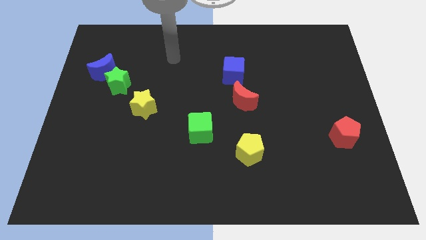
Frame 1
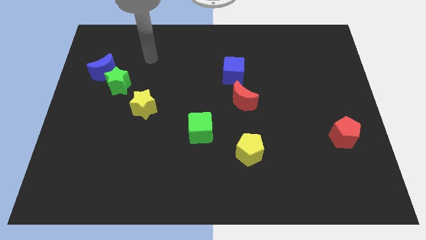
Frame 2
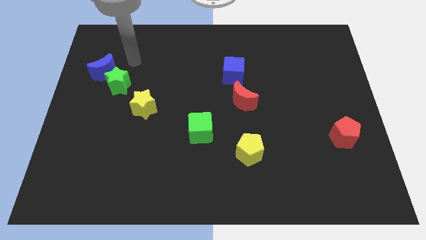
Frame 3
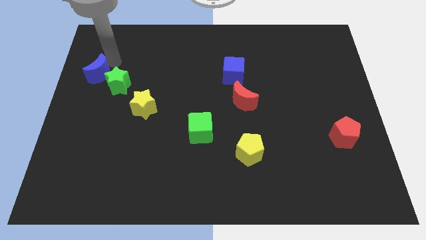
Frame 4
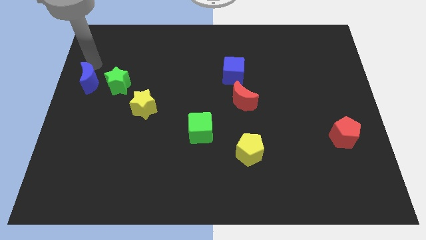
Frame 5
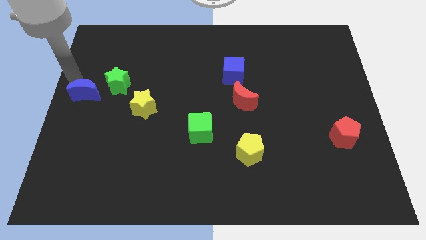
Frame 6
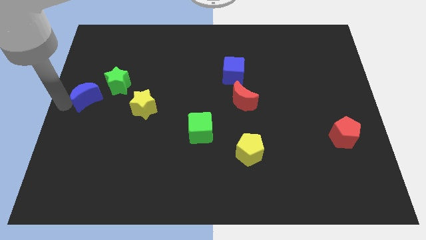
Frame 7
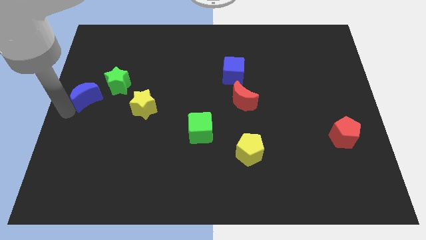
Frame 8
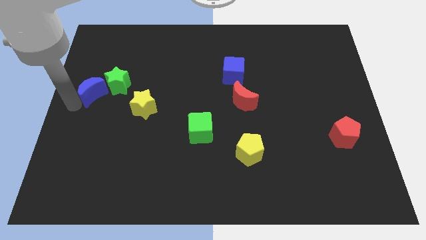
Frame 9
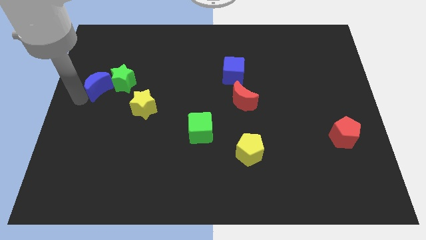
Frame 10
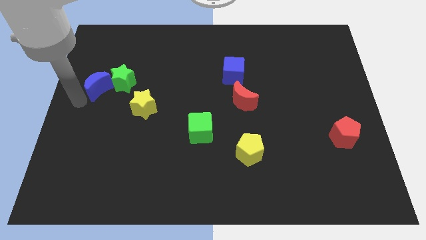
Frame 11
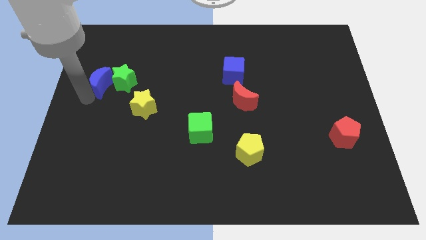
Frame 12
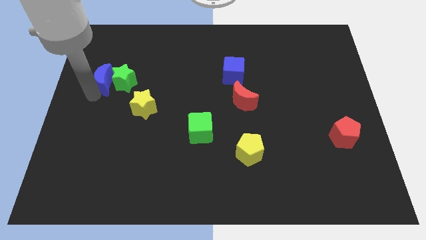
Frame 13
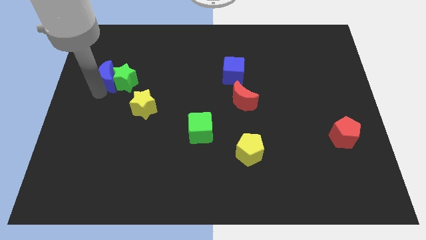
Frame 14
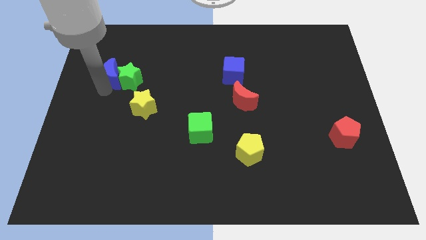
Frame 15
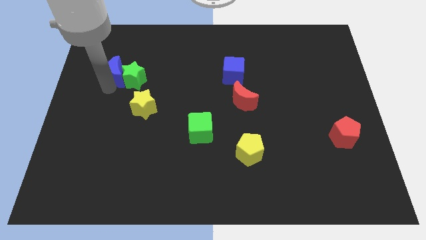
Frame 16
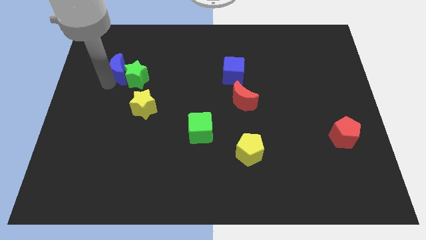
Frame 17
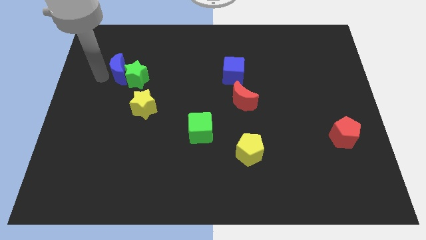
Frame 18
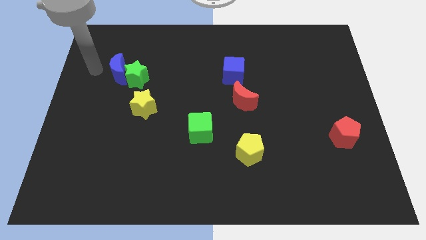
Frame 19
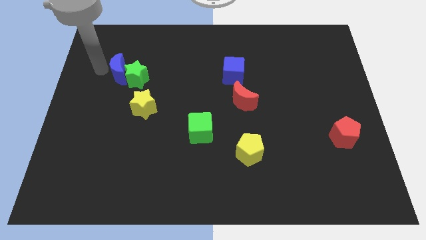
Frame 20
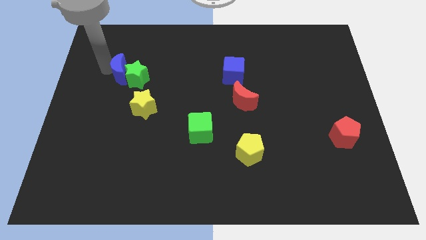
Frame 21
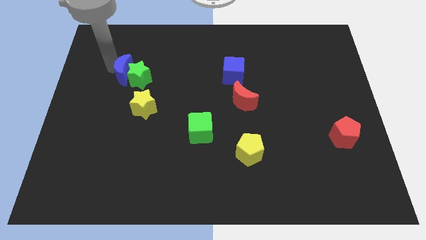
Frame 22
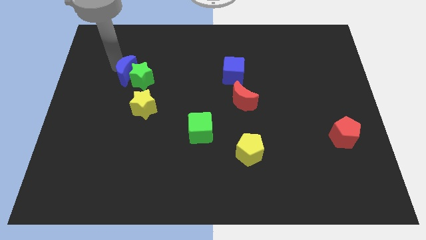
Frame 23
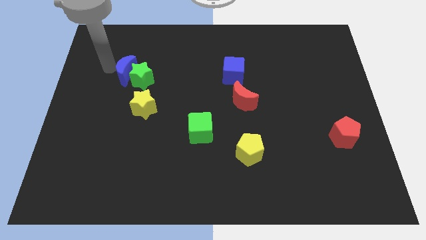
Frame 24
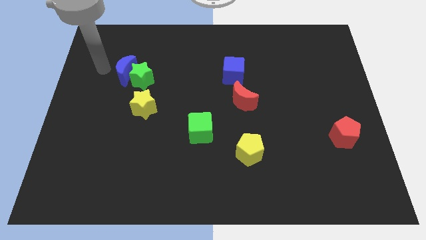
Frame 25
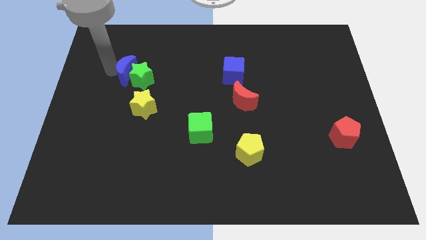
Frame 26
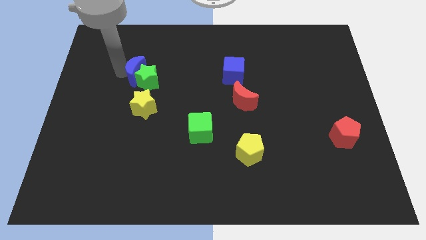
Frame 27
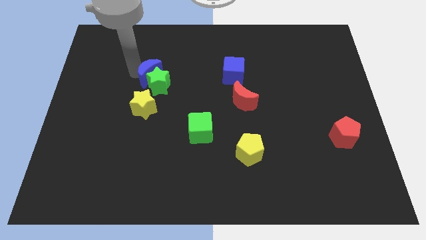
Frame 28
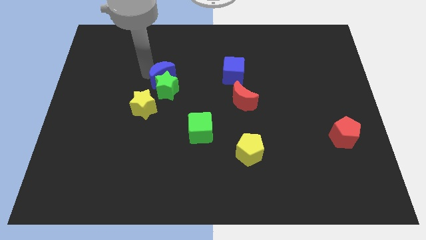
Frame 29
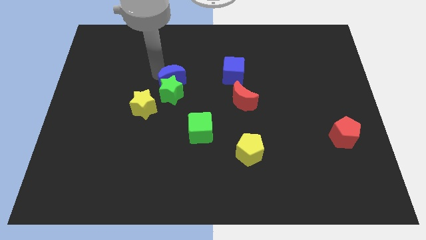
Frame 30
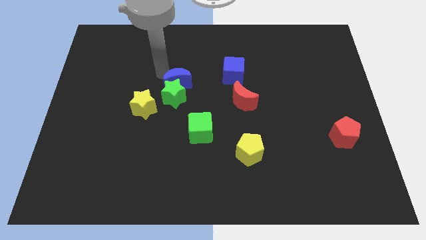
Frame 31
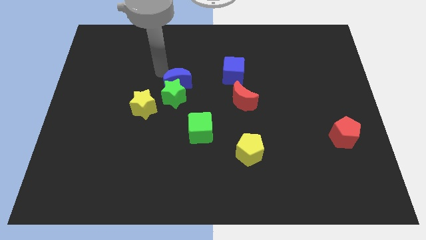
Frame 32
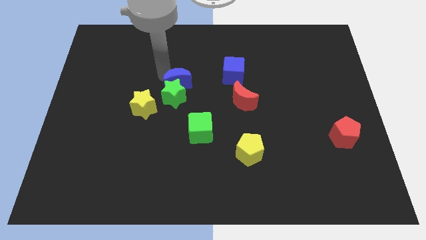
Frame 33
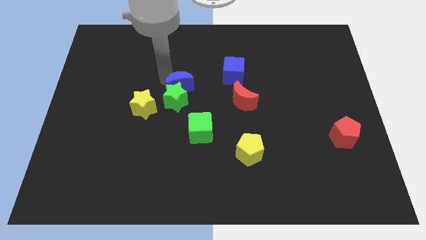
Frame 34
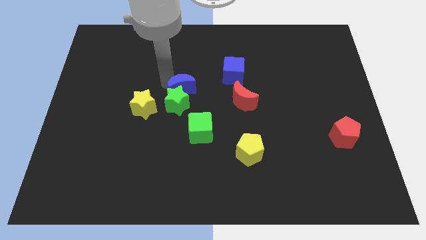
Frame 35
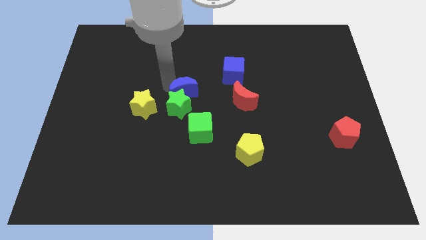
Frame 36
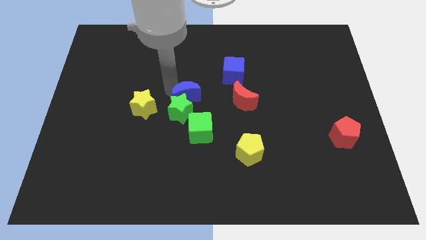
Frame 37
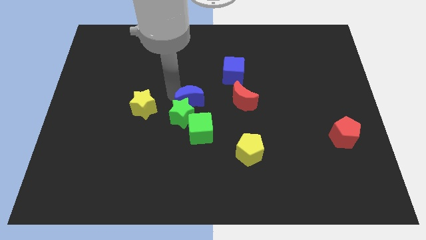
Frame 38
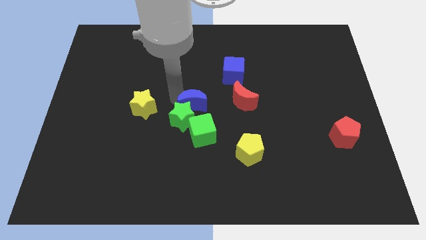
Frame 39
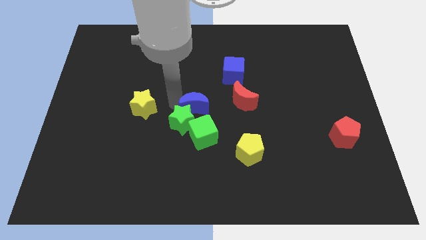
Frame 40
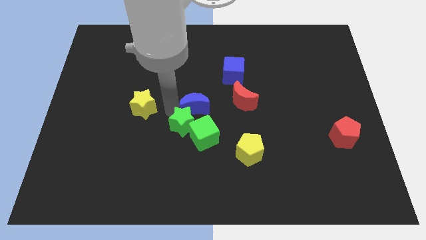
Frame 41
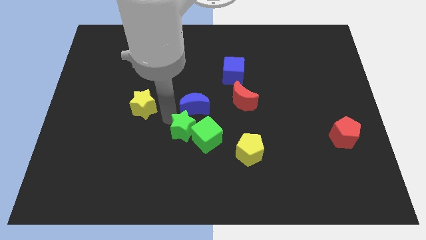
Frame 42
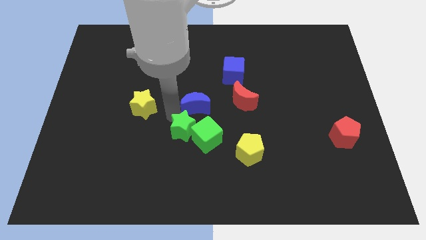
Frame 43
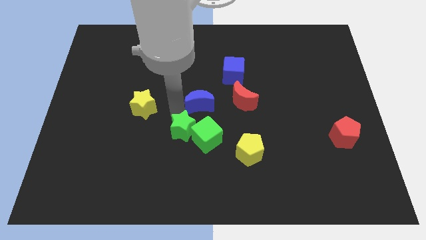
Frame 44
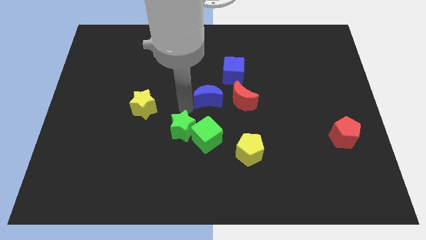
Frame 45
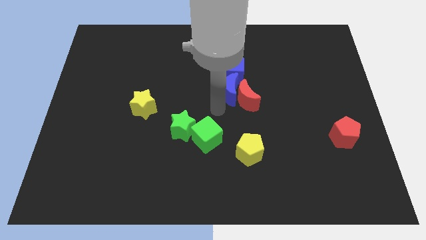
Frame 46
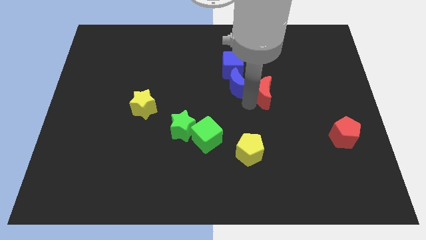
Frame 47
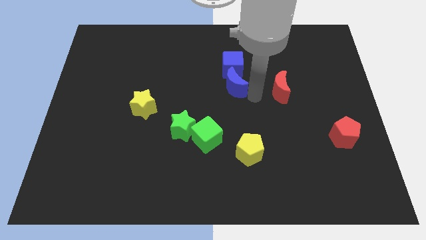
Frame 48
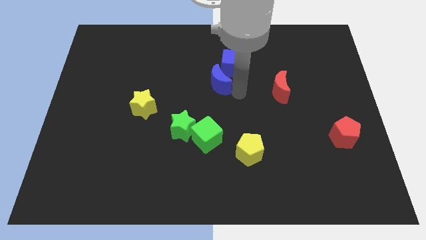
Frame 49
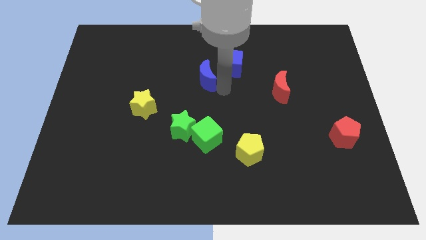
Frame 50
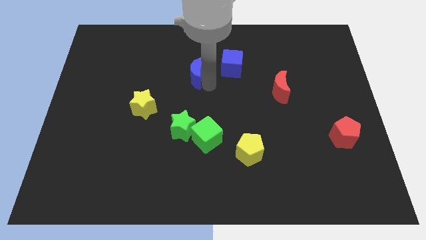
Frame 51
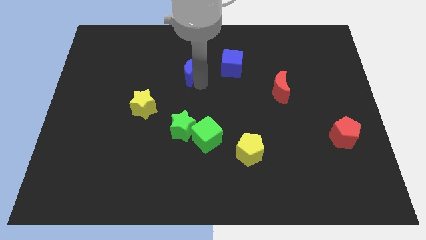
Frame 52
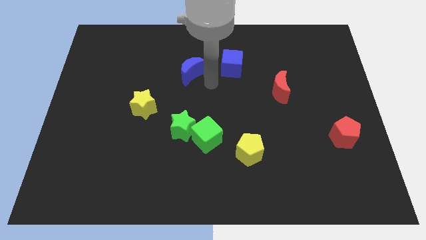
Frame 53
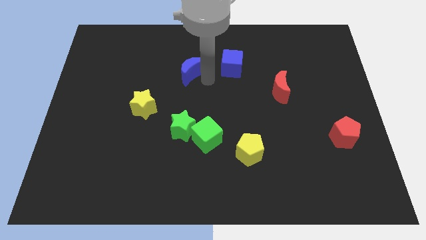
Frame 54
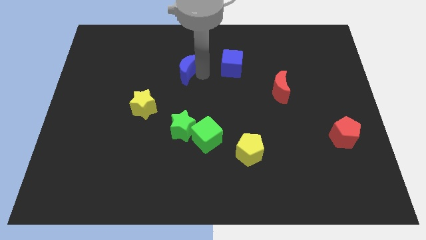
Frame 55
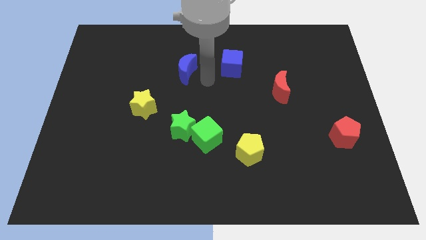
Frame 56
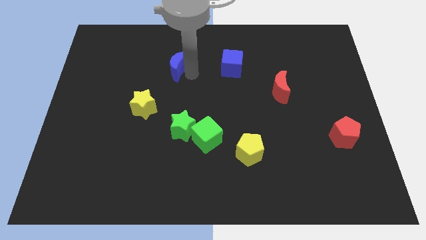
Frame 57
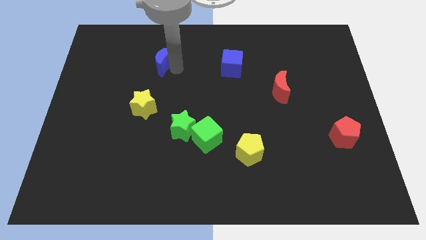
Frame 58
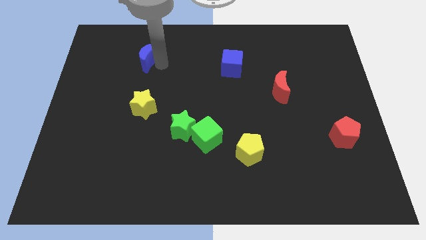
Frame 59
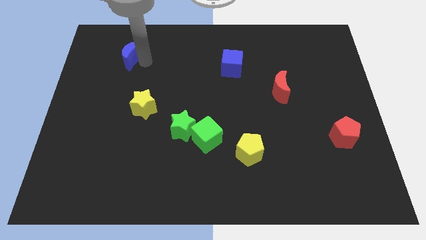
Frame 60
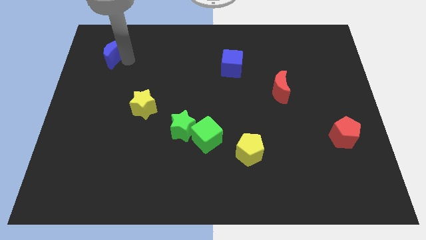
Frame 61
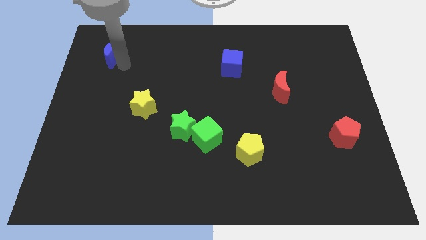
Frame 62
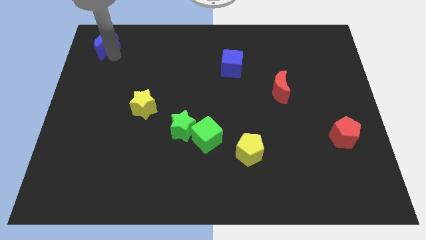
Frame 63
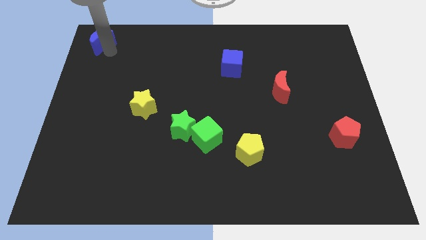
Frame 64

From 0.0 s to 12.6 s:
push the blue moon to the top left of the board

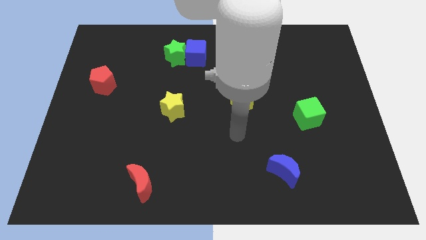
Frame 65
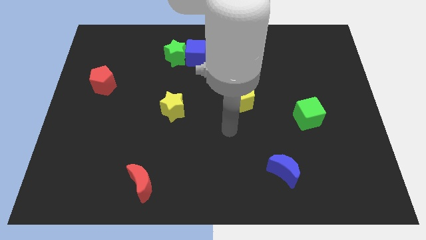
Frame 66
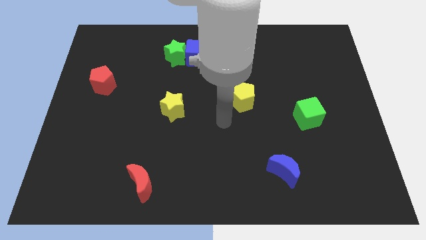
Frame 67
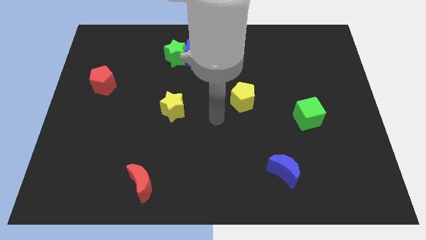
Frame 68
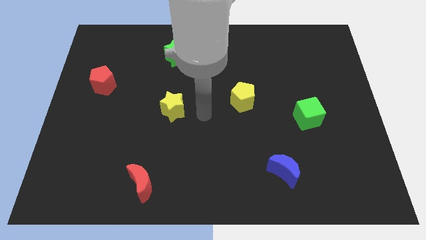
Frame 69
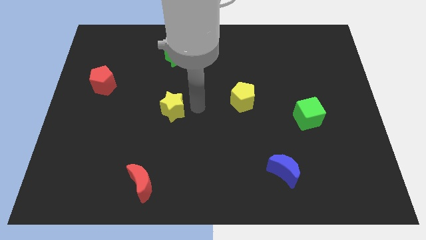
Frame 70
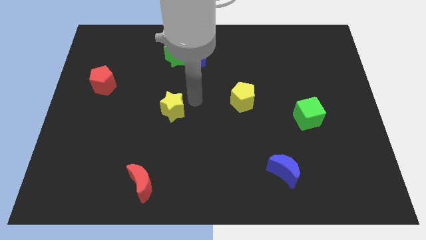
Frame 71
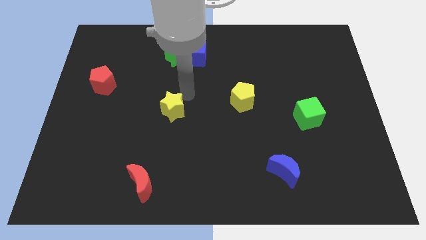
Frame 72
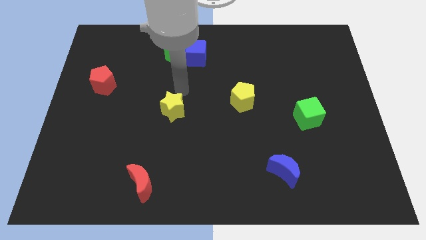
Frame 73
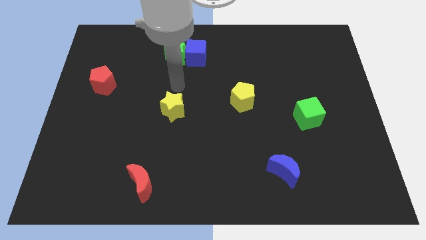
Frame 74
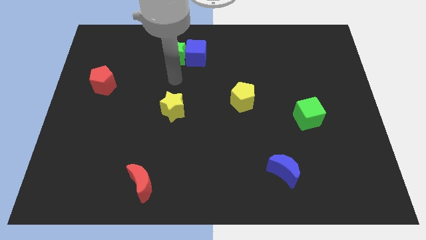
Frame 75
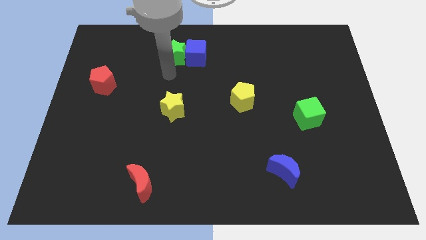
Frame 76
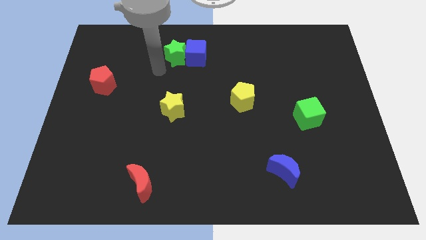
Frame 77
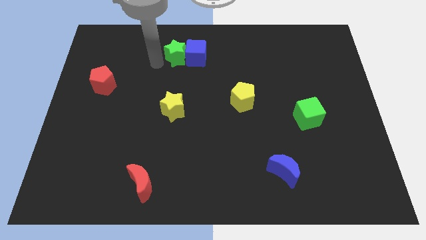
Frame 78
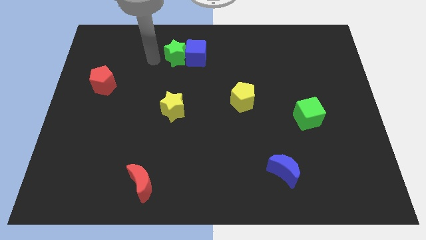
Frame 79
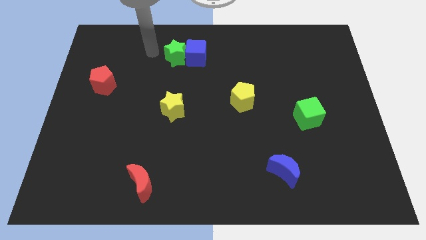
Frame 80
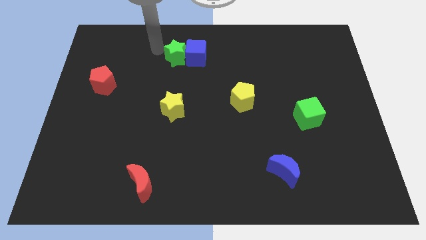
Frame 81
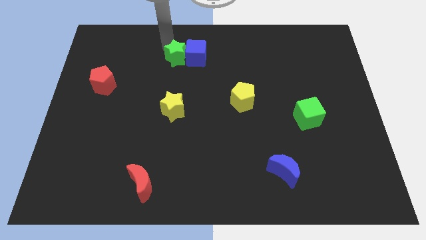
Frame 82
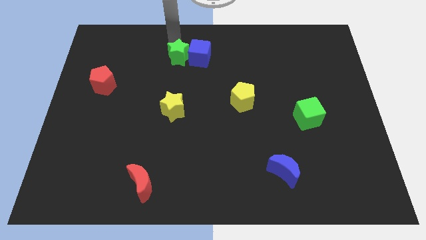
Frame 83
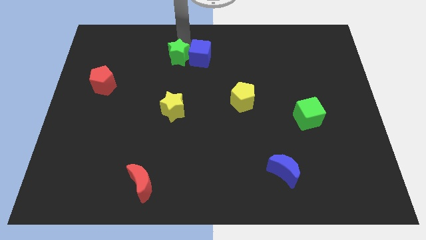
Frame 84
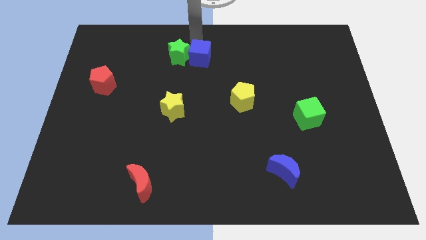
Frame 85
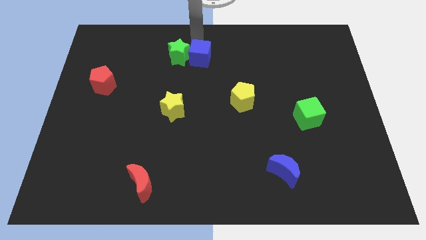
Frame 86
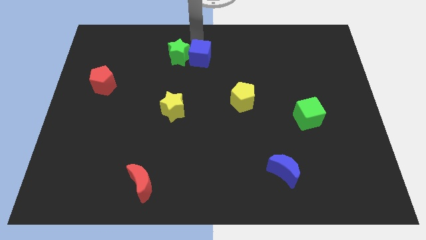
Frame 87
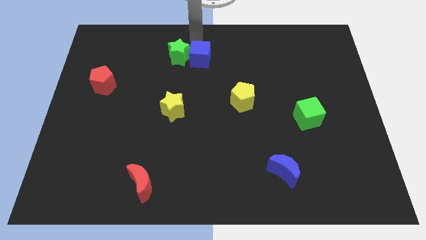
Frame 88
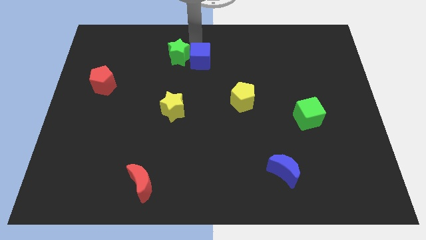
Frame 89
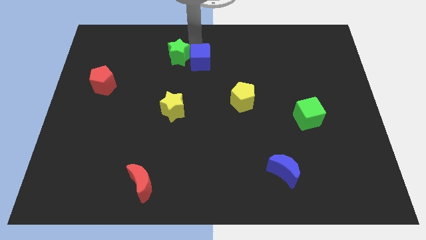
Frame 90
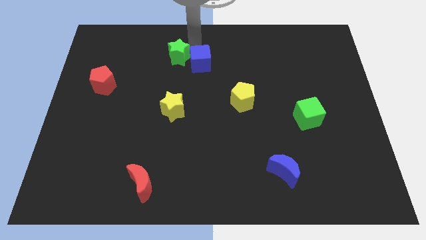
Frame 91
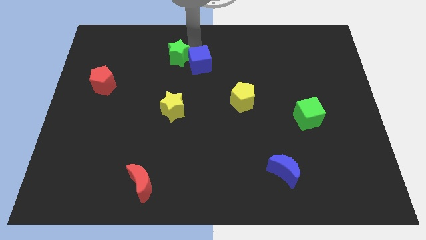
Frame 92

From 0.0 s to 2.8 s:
slide the blue cube to the middle
